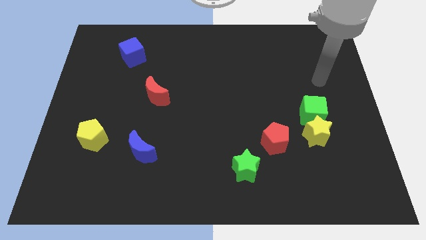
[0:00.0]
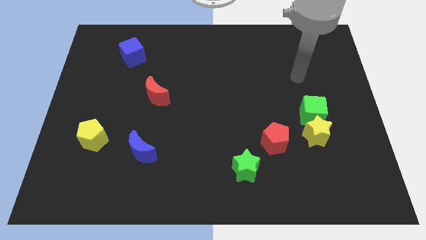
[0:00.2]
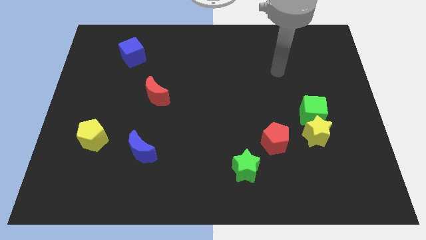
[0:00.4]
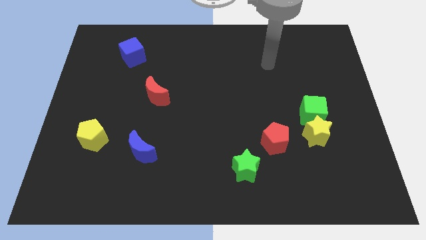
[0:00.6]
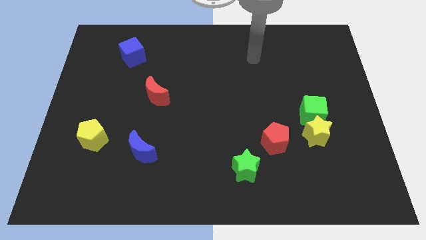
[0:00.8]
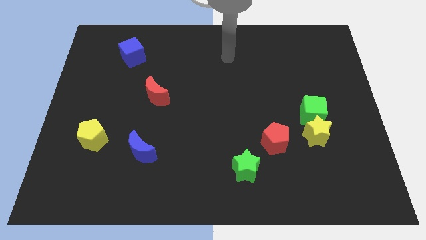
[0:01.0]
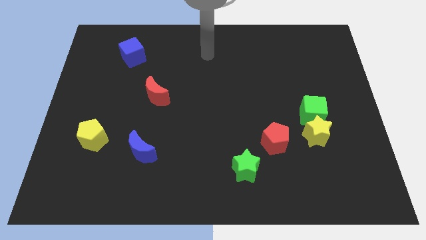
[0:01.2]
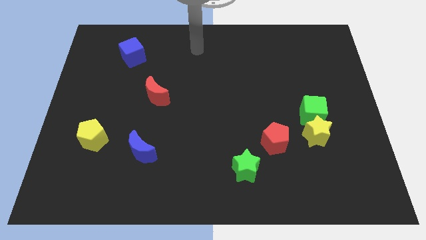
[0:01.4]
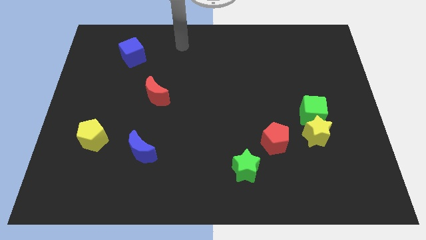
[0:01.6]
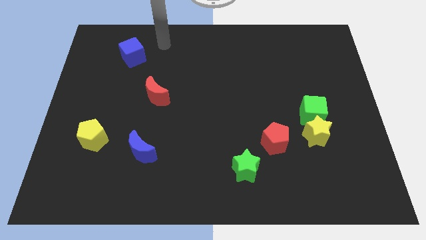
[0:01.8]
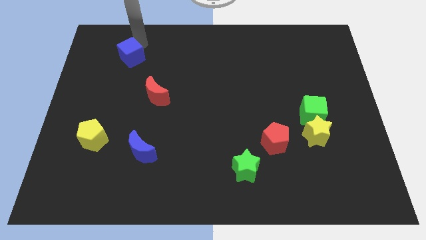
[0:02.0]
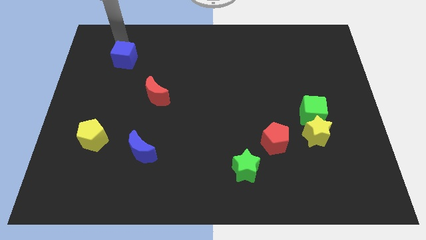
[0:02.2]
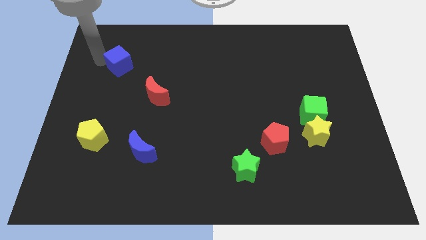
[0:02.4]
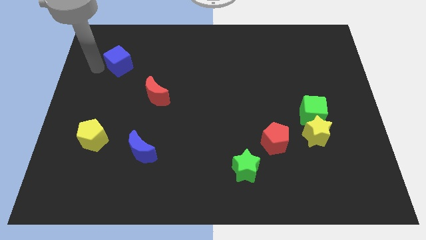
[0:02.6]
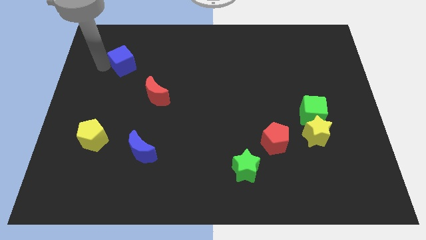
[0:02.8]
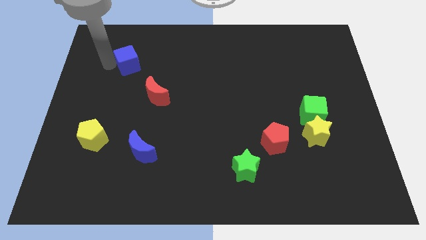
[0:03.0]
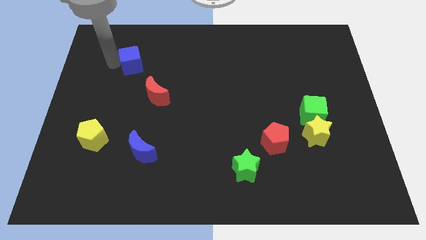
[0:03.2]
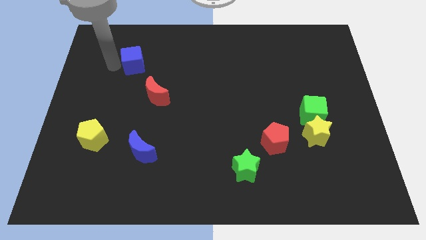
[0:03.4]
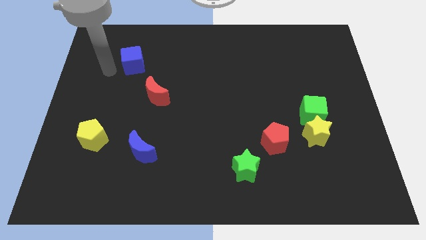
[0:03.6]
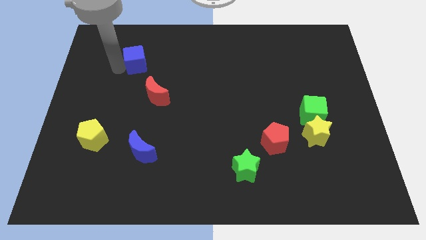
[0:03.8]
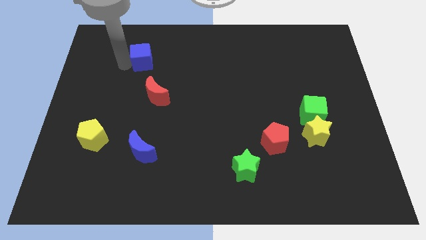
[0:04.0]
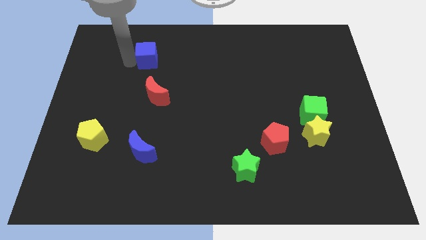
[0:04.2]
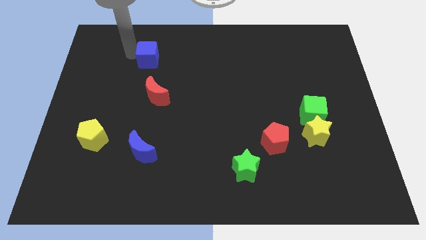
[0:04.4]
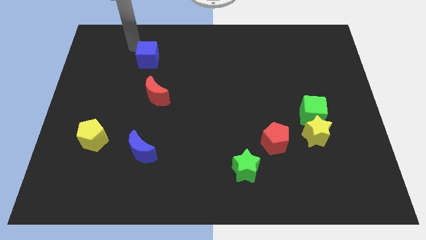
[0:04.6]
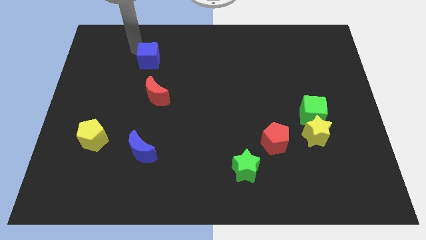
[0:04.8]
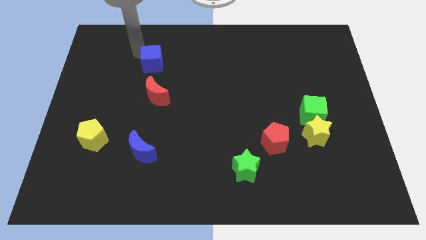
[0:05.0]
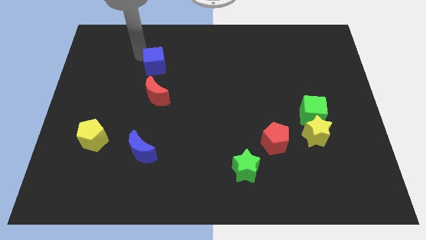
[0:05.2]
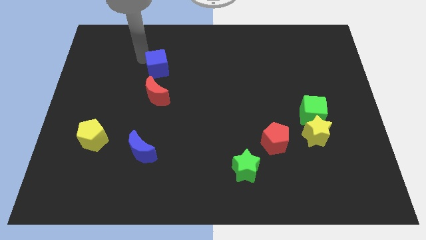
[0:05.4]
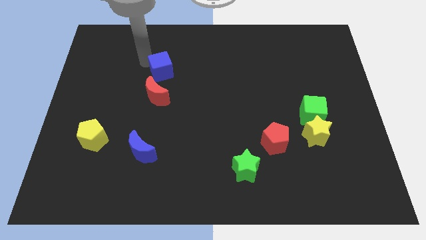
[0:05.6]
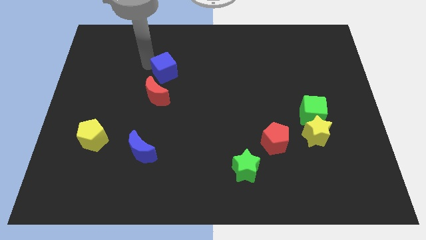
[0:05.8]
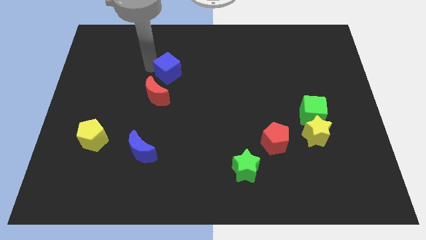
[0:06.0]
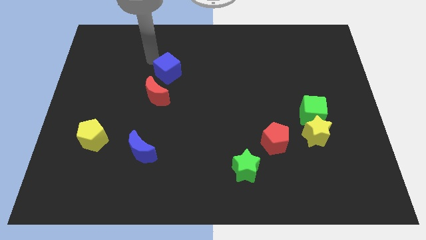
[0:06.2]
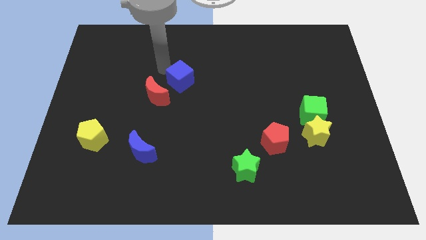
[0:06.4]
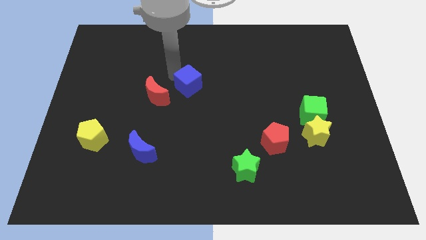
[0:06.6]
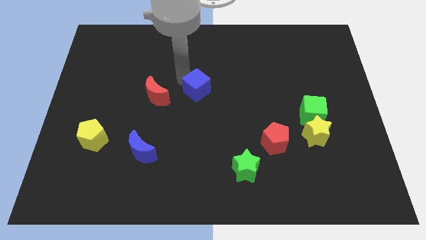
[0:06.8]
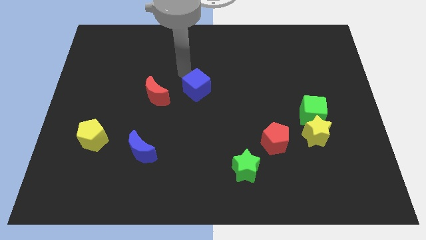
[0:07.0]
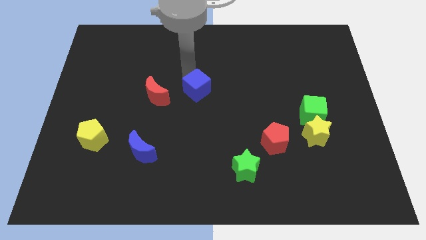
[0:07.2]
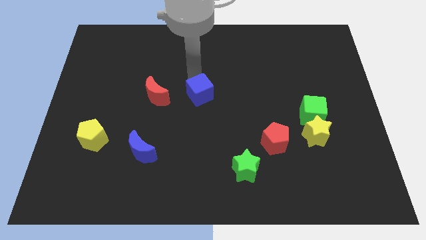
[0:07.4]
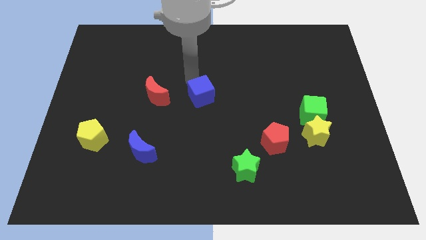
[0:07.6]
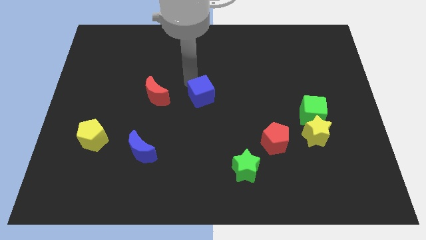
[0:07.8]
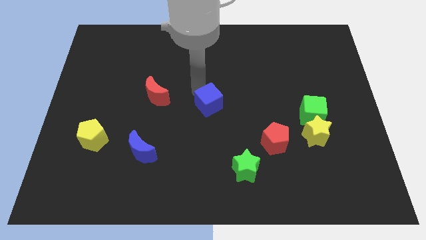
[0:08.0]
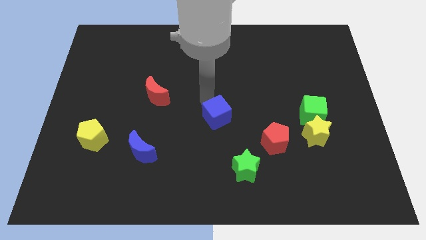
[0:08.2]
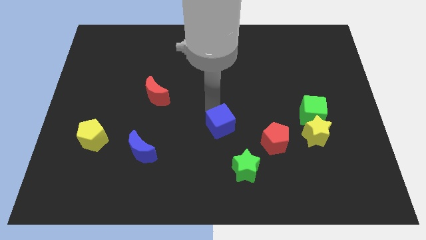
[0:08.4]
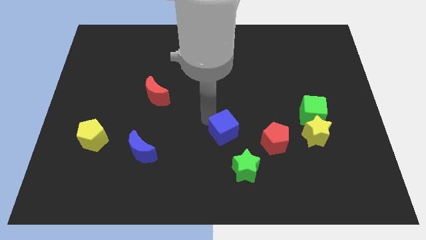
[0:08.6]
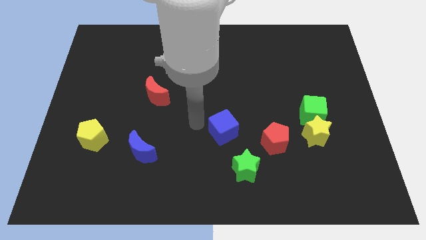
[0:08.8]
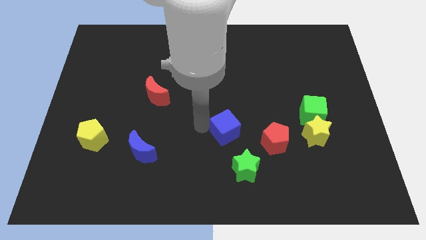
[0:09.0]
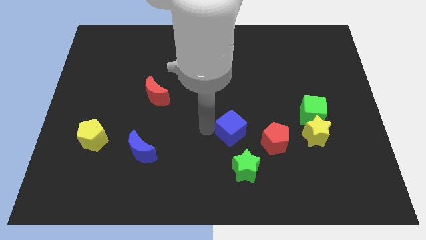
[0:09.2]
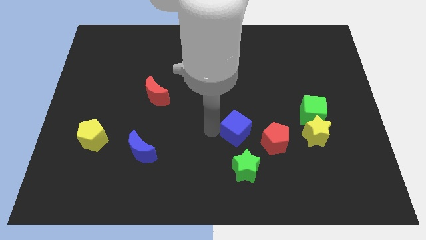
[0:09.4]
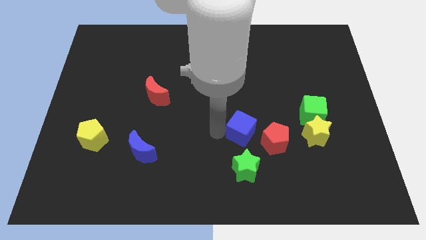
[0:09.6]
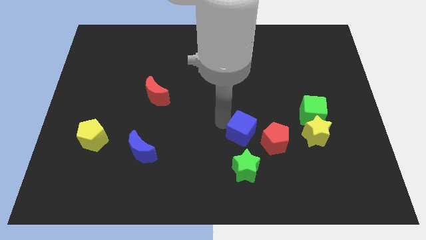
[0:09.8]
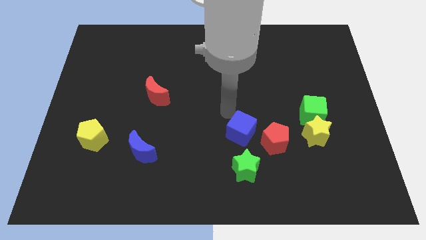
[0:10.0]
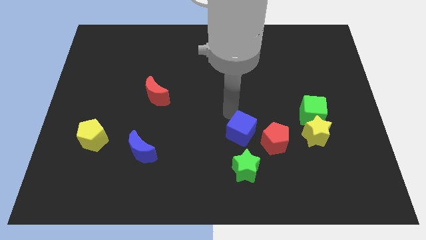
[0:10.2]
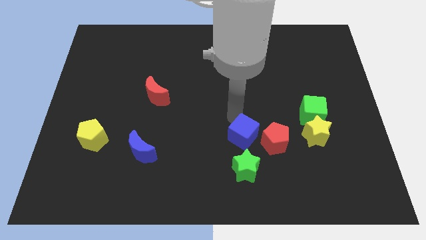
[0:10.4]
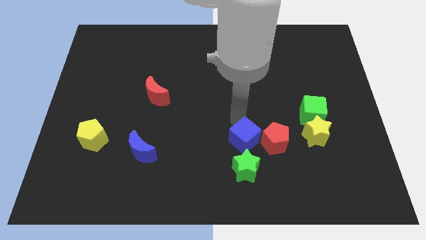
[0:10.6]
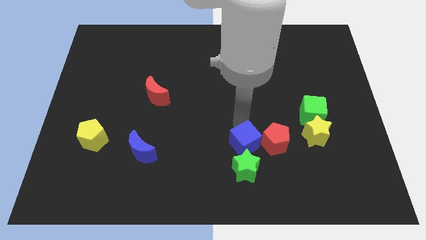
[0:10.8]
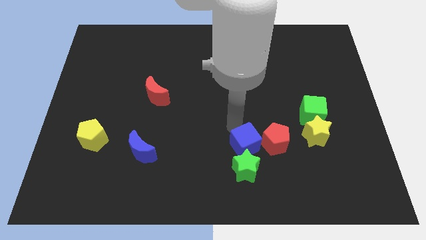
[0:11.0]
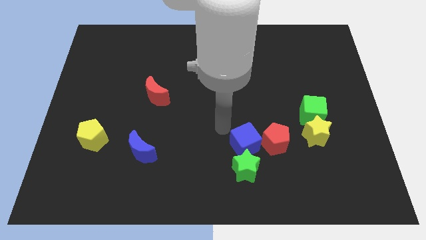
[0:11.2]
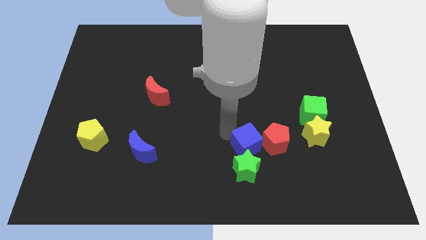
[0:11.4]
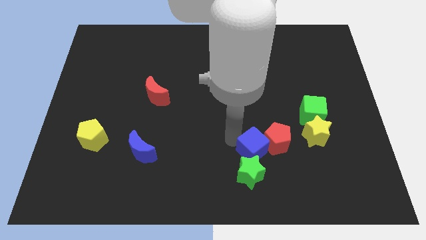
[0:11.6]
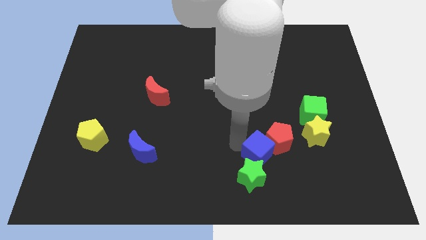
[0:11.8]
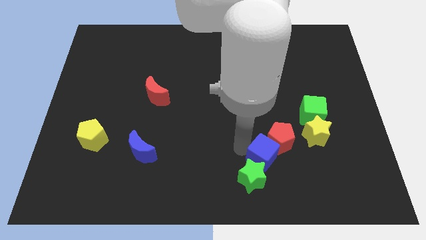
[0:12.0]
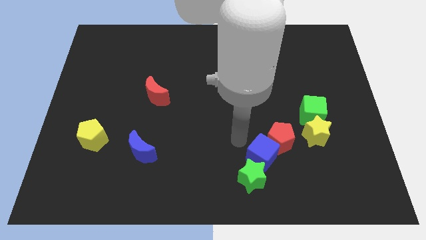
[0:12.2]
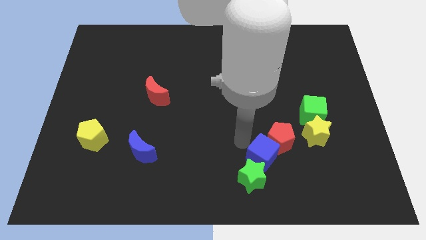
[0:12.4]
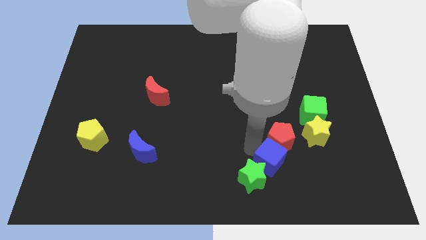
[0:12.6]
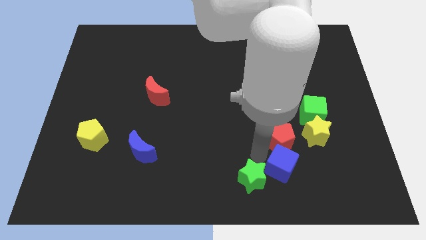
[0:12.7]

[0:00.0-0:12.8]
push the blue cube to the bottom right of the red pentagon

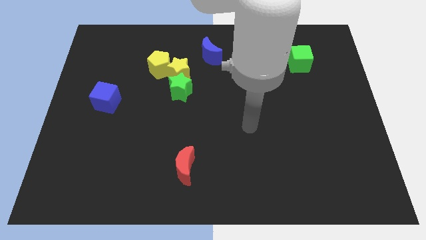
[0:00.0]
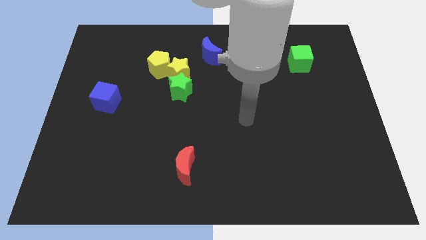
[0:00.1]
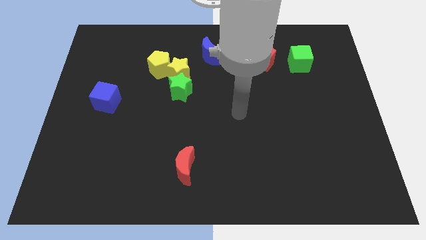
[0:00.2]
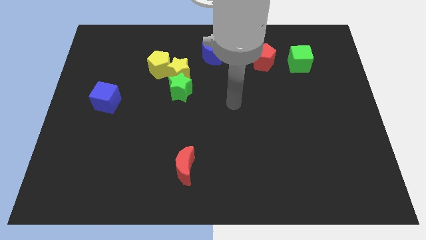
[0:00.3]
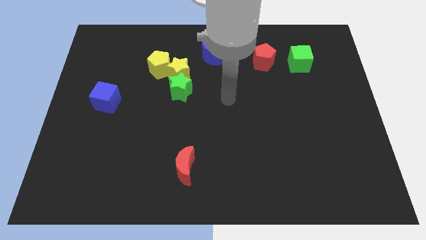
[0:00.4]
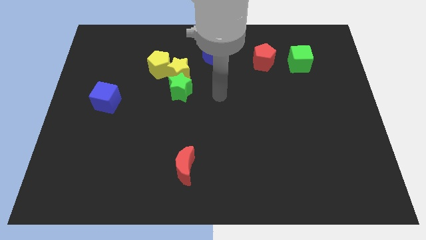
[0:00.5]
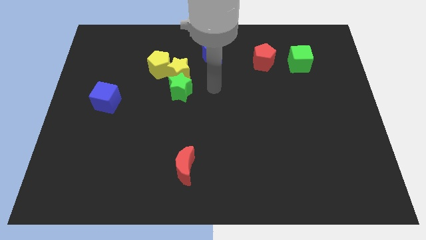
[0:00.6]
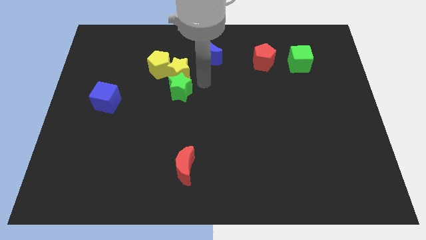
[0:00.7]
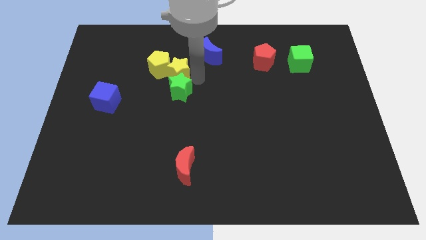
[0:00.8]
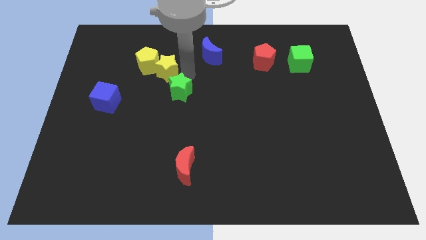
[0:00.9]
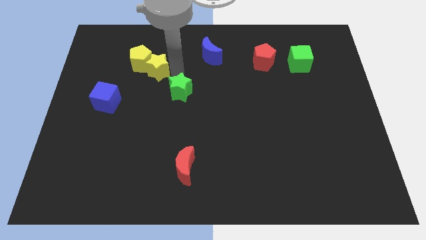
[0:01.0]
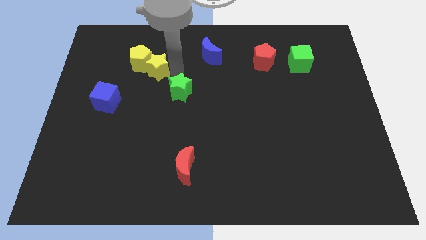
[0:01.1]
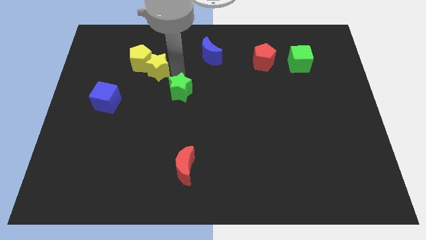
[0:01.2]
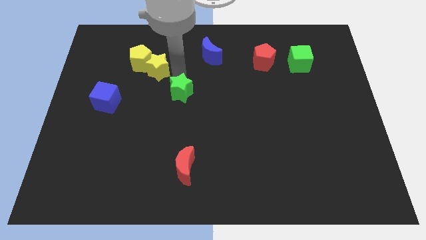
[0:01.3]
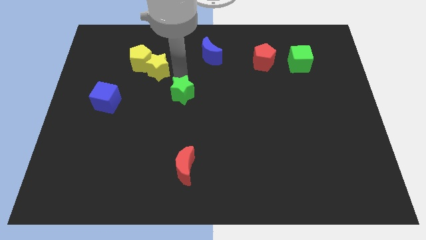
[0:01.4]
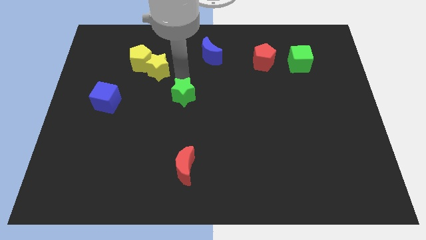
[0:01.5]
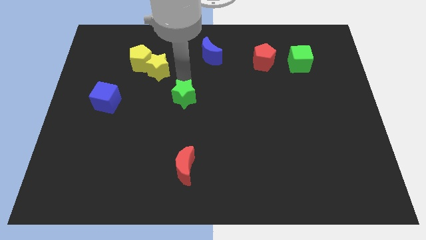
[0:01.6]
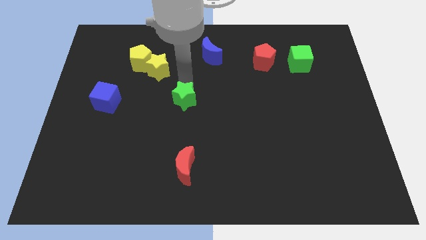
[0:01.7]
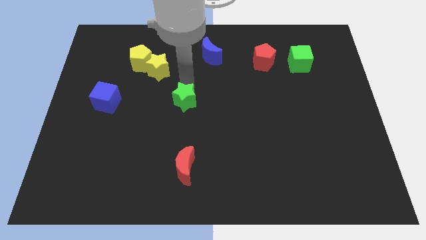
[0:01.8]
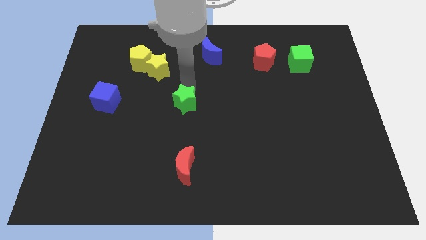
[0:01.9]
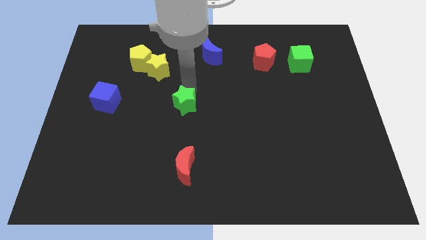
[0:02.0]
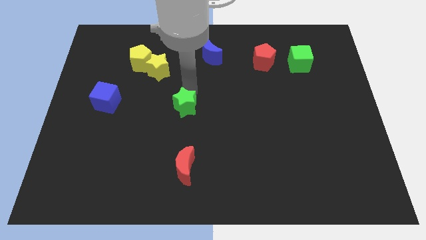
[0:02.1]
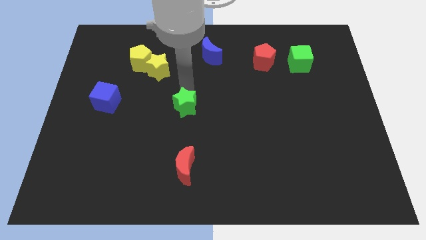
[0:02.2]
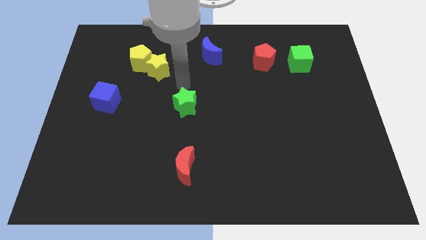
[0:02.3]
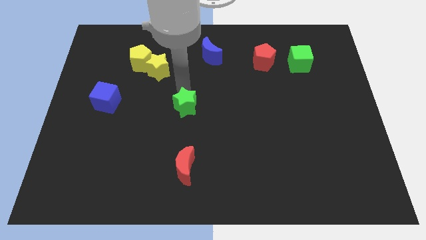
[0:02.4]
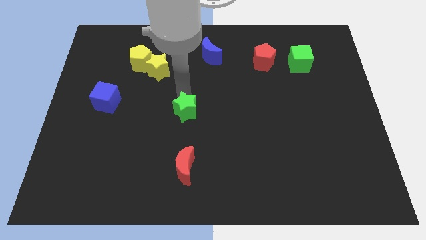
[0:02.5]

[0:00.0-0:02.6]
move the green star to the top side of the red moon
